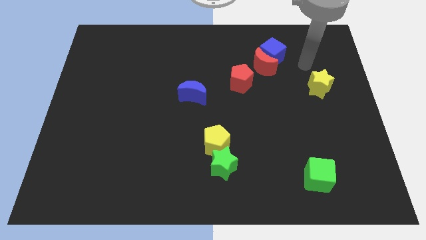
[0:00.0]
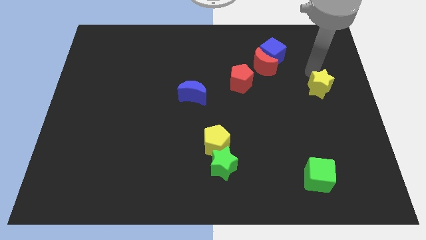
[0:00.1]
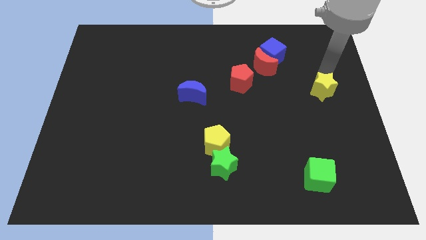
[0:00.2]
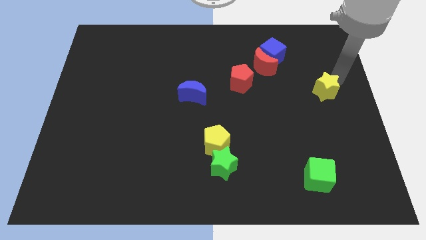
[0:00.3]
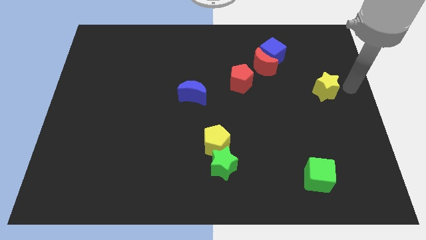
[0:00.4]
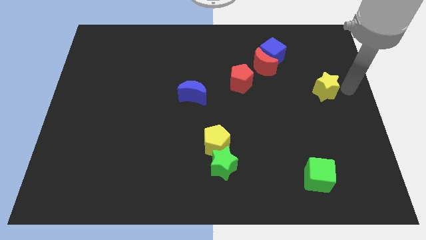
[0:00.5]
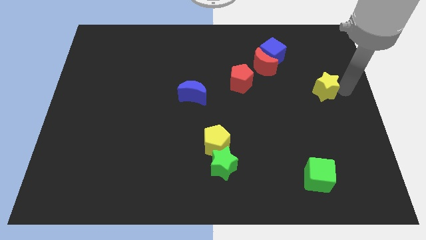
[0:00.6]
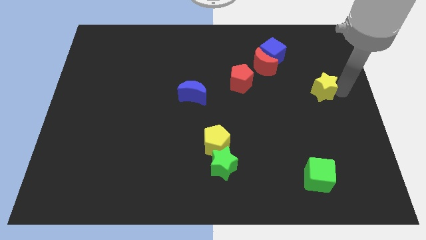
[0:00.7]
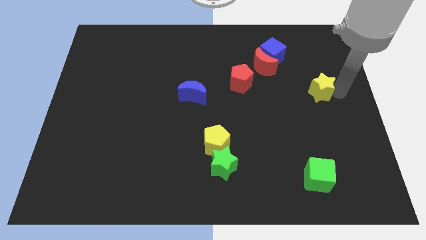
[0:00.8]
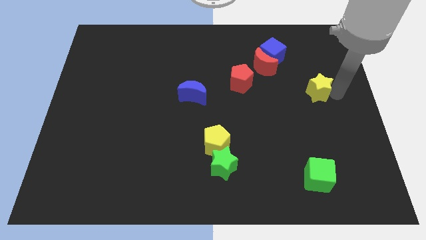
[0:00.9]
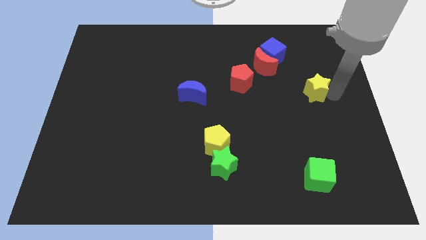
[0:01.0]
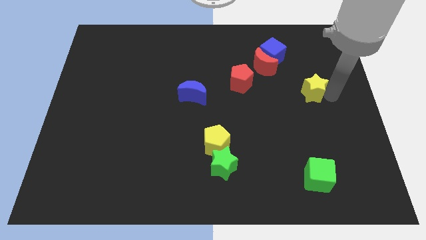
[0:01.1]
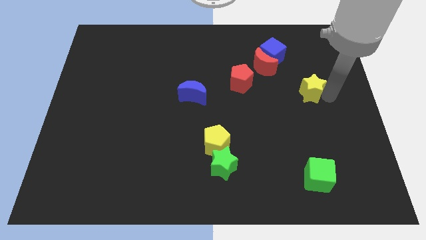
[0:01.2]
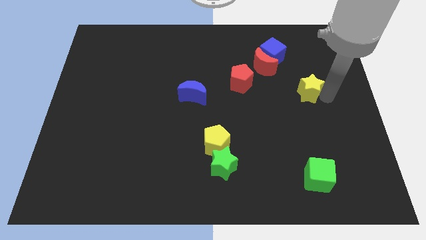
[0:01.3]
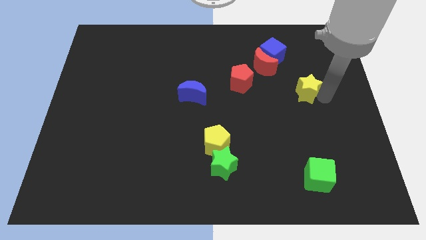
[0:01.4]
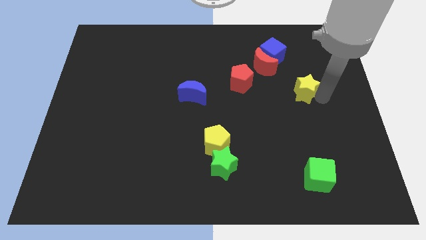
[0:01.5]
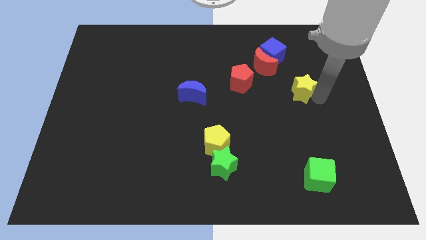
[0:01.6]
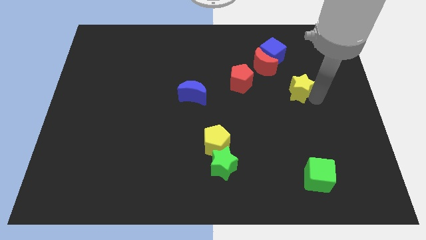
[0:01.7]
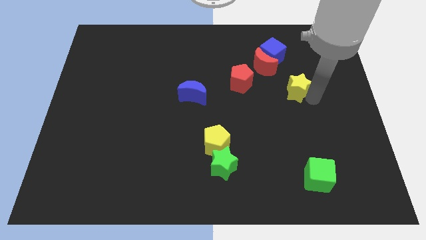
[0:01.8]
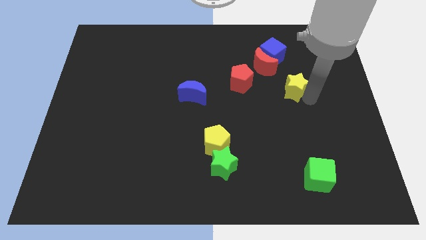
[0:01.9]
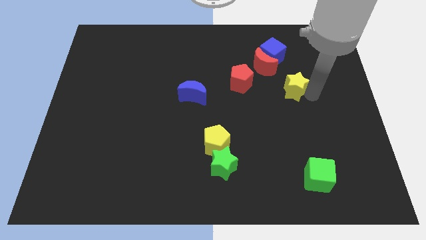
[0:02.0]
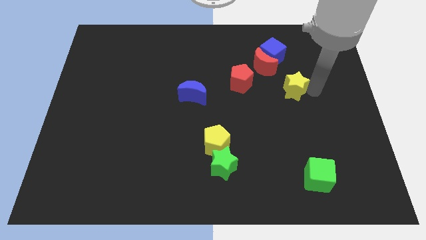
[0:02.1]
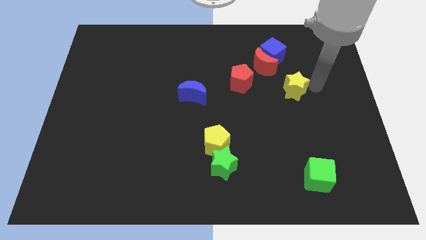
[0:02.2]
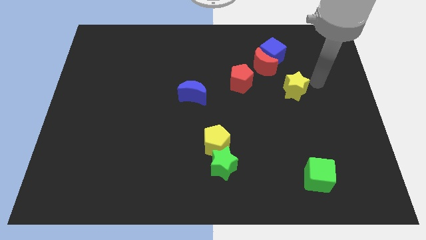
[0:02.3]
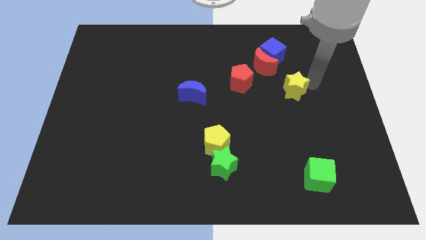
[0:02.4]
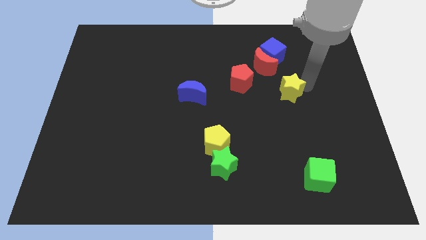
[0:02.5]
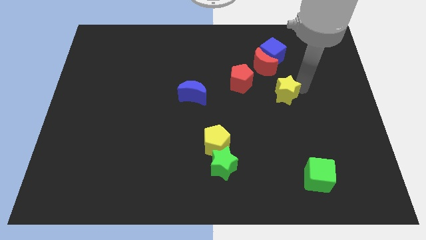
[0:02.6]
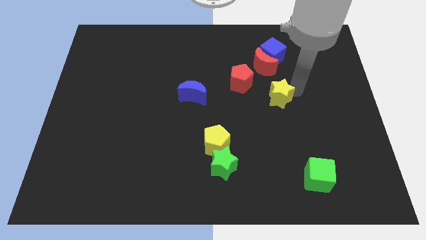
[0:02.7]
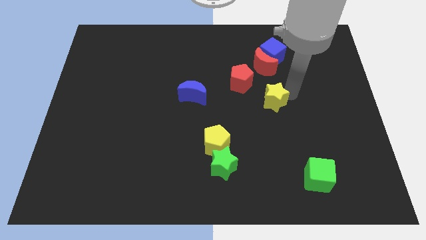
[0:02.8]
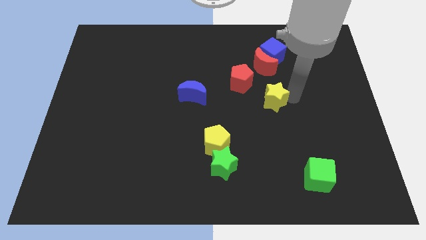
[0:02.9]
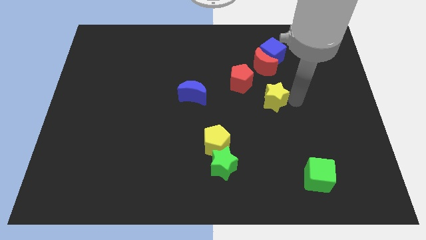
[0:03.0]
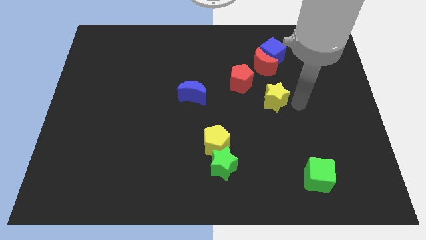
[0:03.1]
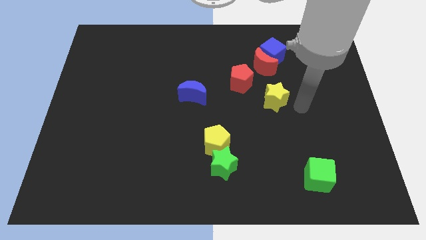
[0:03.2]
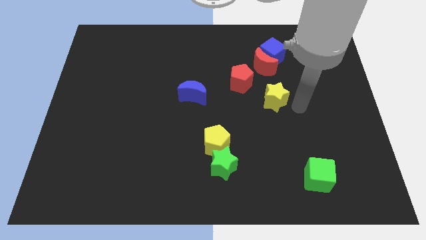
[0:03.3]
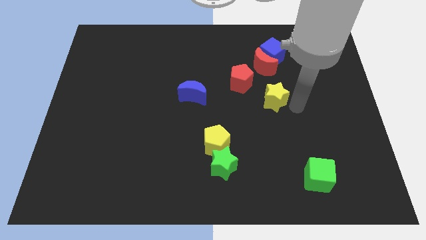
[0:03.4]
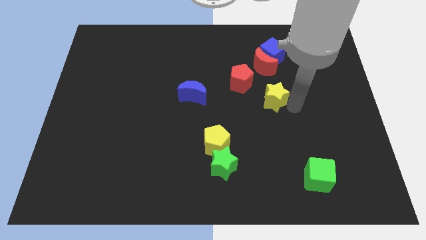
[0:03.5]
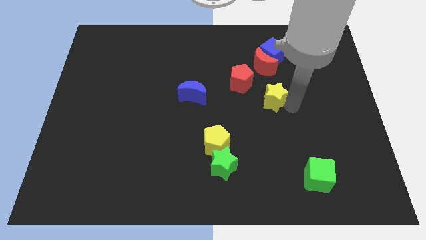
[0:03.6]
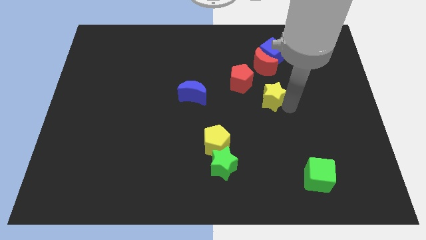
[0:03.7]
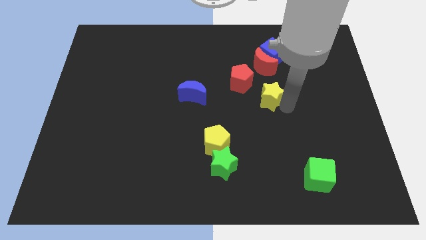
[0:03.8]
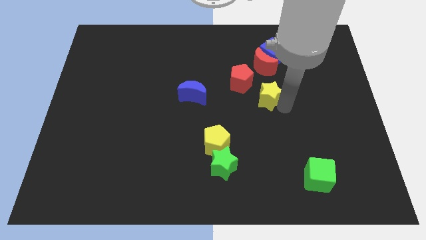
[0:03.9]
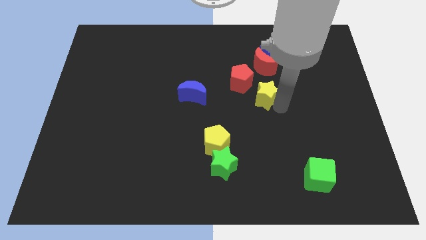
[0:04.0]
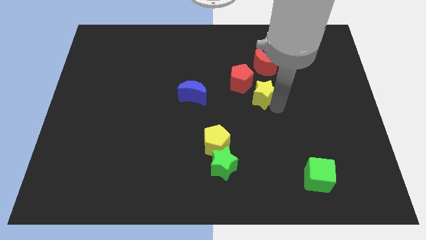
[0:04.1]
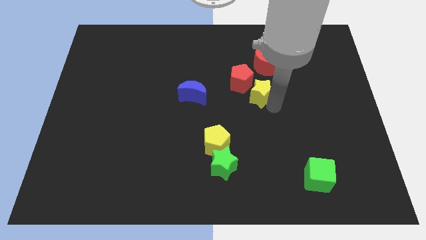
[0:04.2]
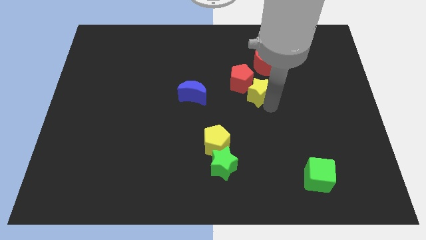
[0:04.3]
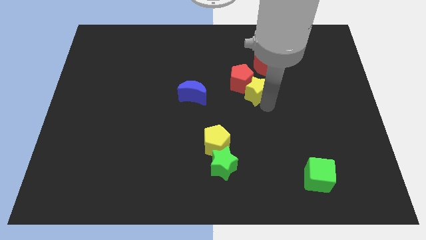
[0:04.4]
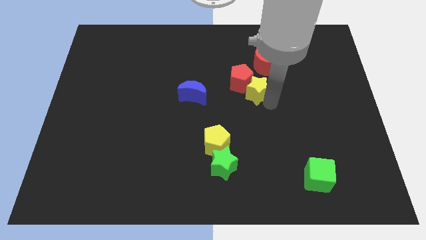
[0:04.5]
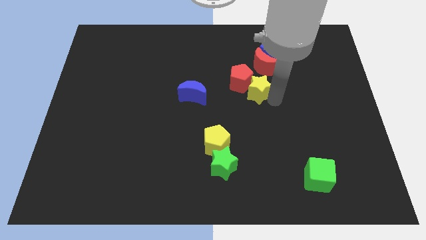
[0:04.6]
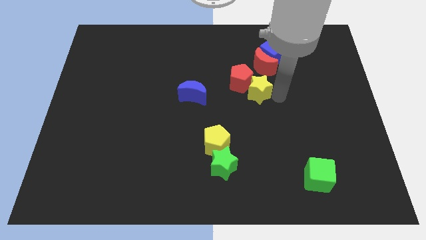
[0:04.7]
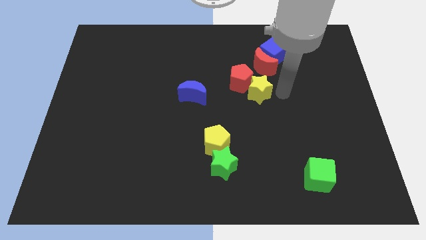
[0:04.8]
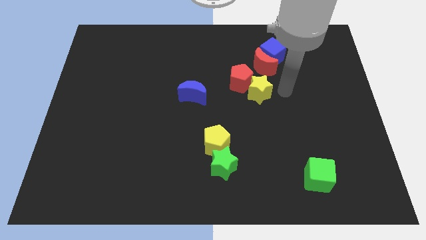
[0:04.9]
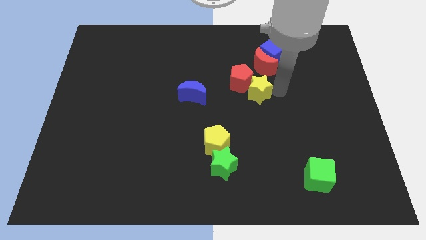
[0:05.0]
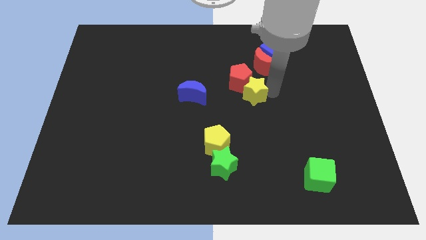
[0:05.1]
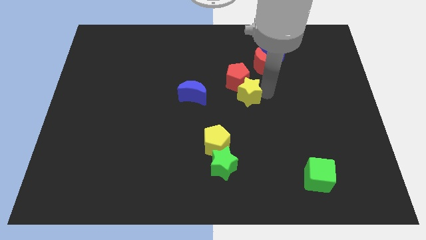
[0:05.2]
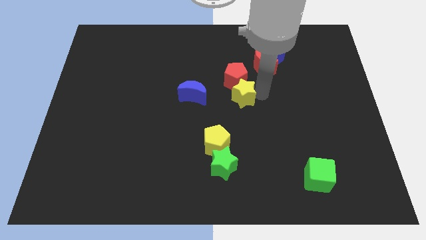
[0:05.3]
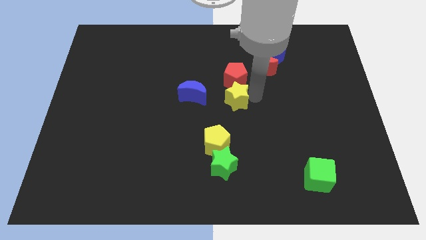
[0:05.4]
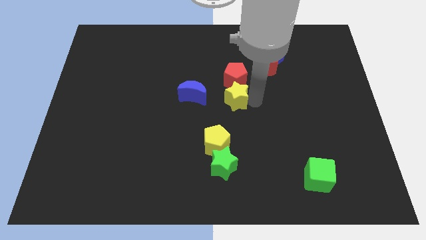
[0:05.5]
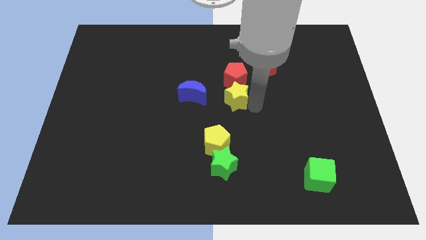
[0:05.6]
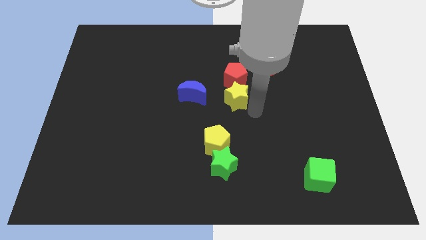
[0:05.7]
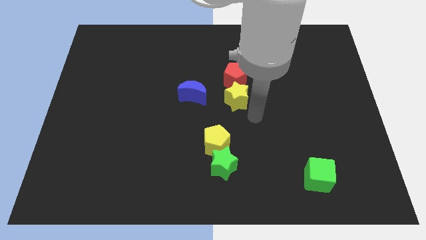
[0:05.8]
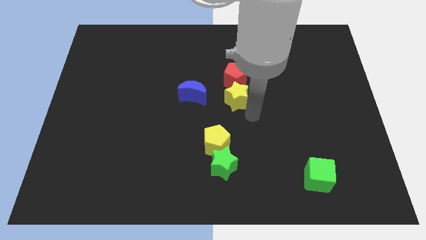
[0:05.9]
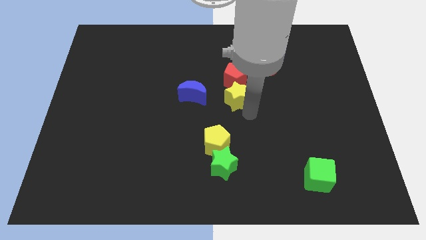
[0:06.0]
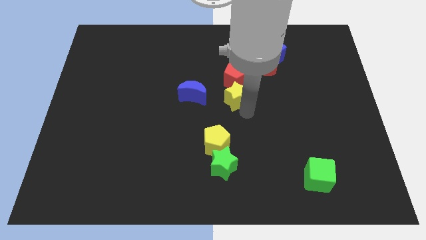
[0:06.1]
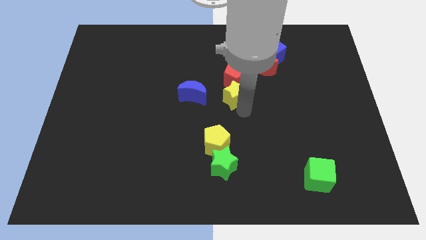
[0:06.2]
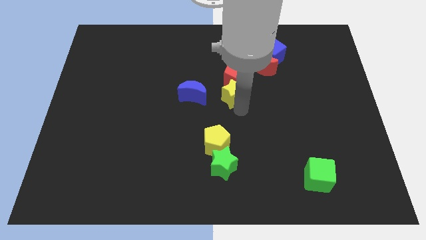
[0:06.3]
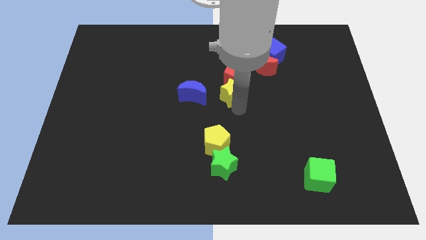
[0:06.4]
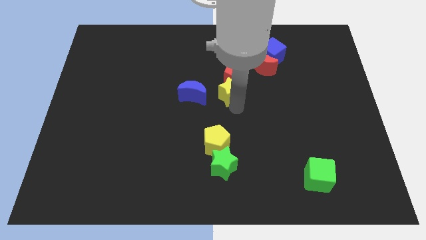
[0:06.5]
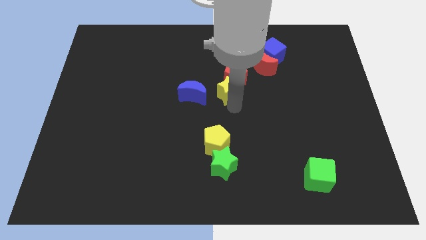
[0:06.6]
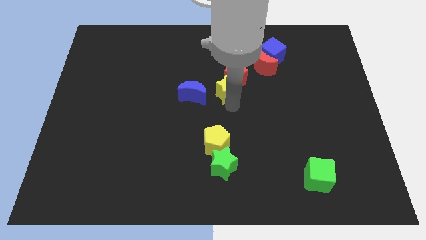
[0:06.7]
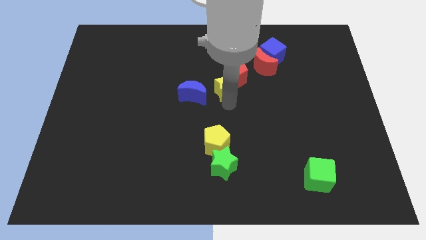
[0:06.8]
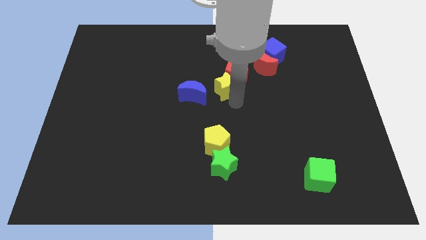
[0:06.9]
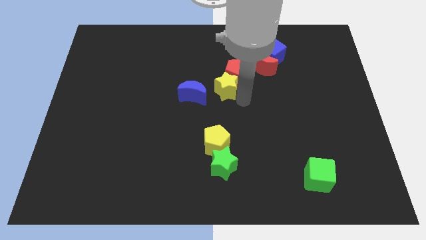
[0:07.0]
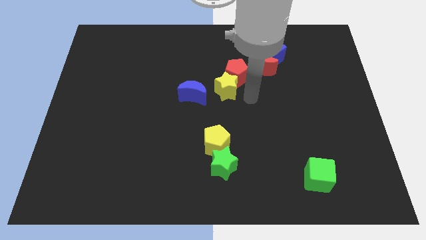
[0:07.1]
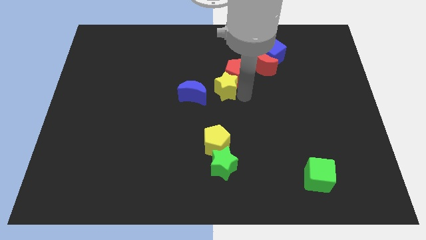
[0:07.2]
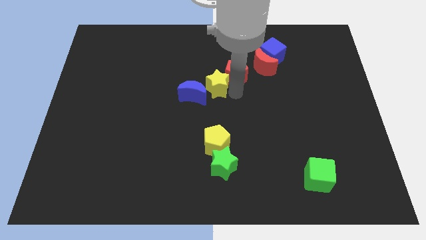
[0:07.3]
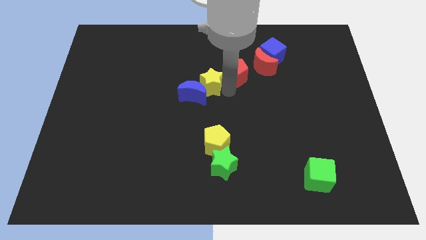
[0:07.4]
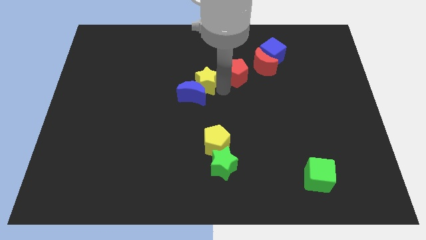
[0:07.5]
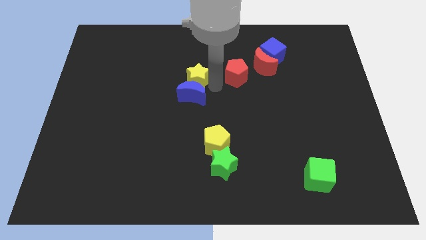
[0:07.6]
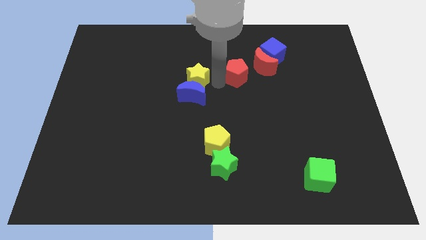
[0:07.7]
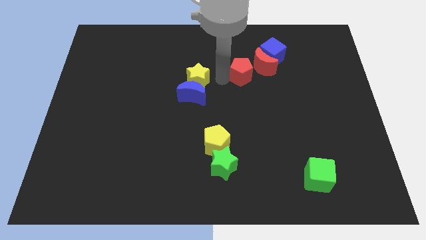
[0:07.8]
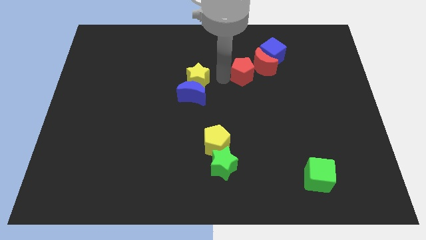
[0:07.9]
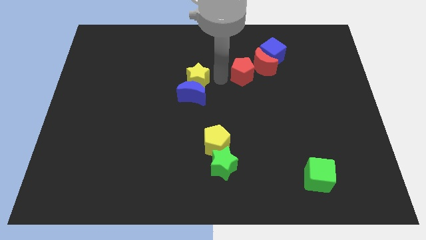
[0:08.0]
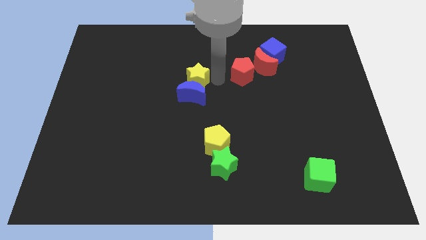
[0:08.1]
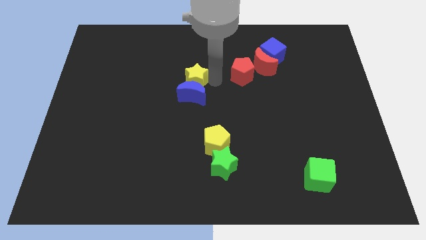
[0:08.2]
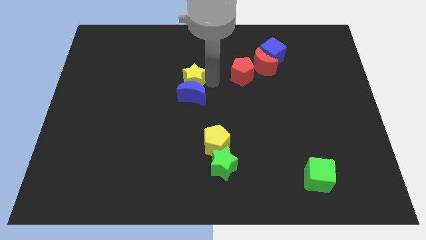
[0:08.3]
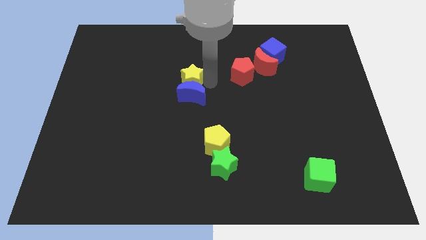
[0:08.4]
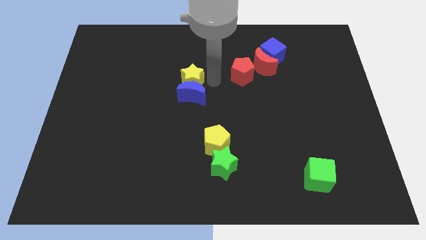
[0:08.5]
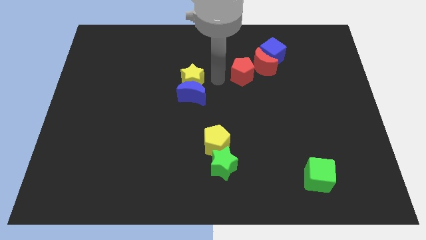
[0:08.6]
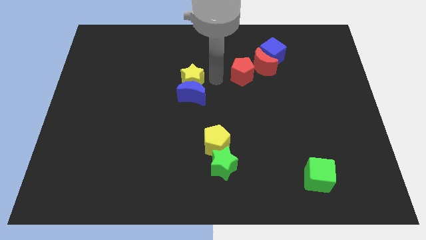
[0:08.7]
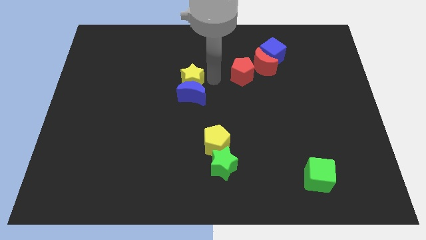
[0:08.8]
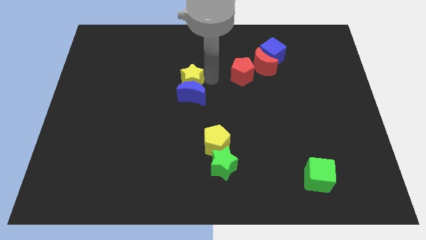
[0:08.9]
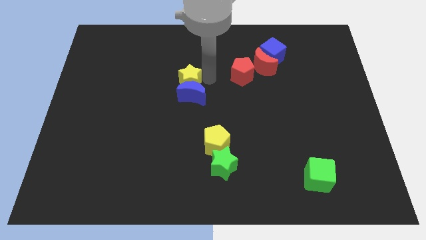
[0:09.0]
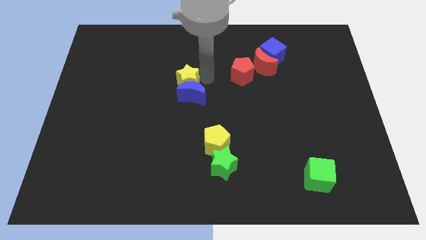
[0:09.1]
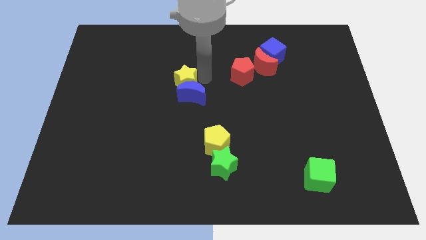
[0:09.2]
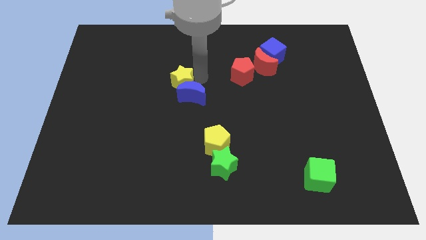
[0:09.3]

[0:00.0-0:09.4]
put the yellow star to the left of the blue moon
